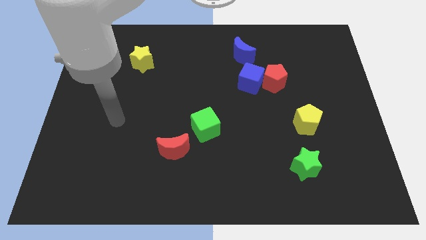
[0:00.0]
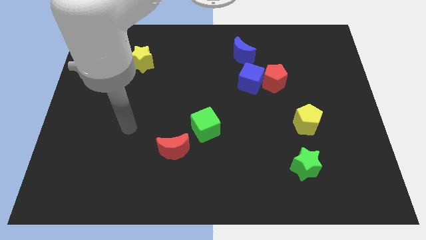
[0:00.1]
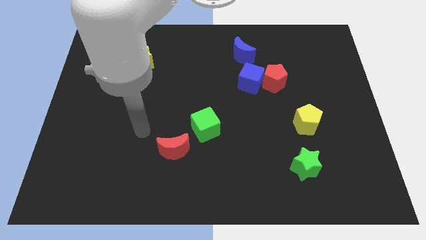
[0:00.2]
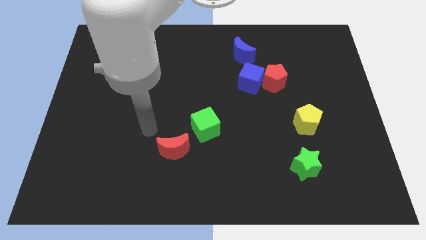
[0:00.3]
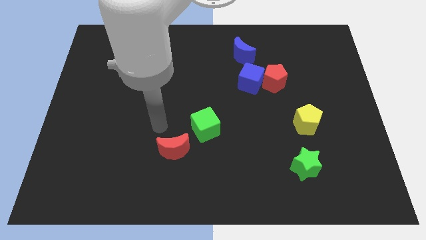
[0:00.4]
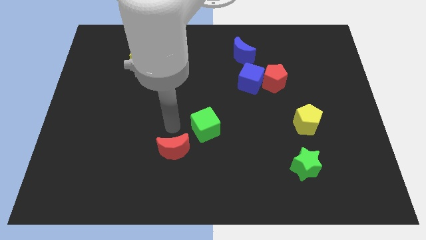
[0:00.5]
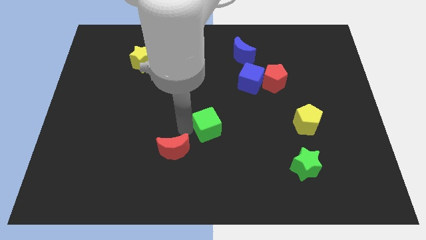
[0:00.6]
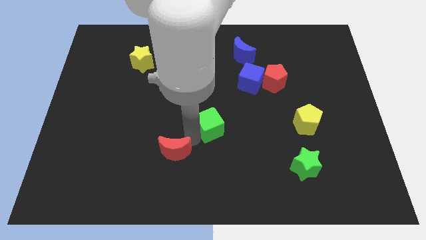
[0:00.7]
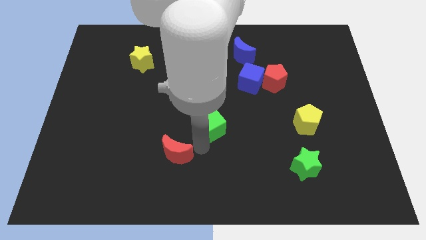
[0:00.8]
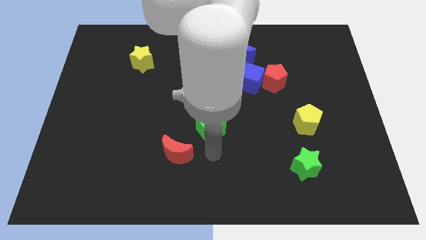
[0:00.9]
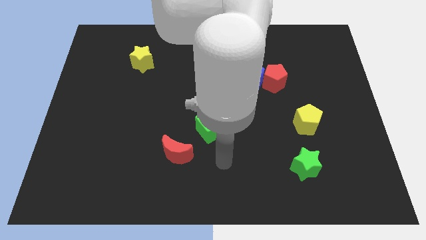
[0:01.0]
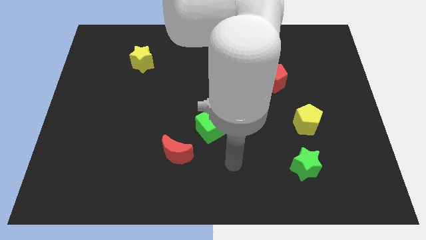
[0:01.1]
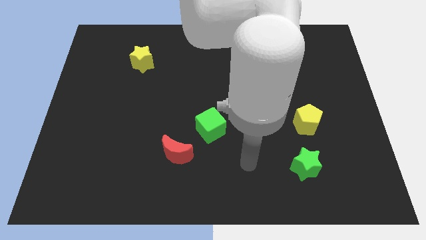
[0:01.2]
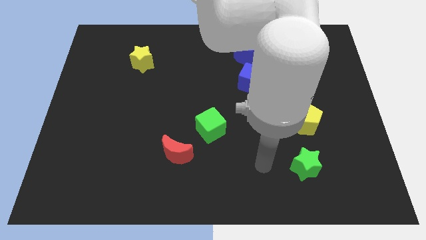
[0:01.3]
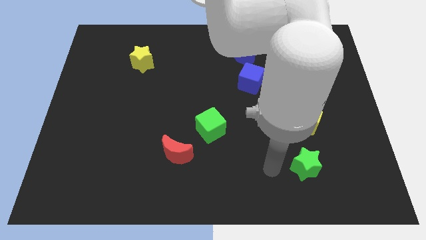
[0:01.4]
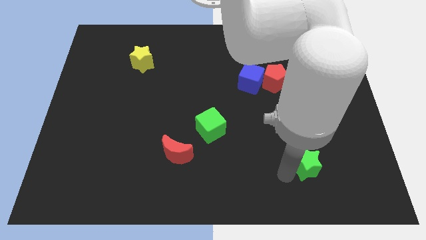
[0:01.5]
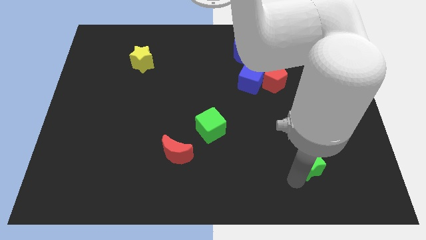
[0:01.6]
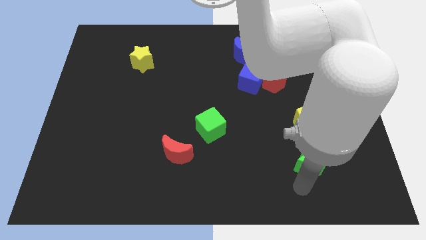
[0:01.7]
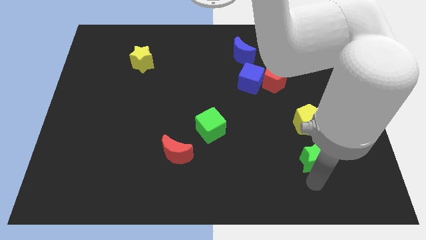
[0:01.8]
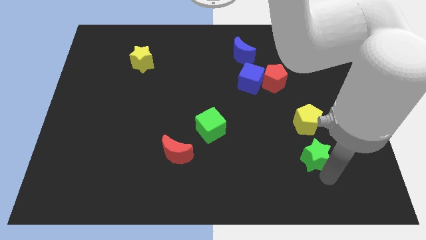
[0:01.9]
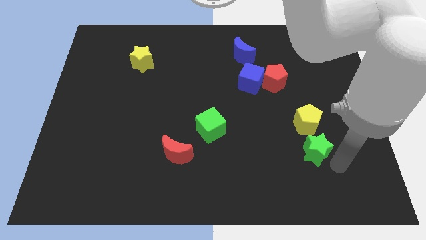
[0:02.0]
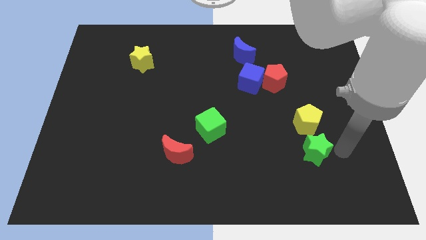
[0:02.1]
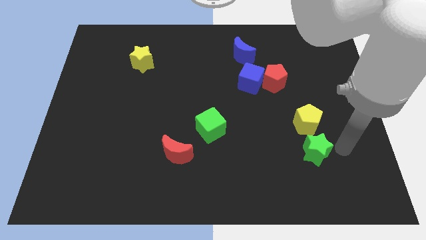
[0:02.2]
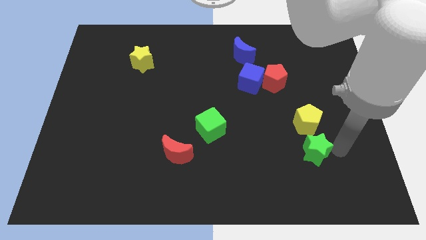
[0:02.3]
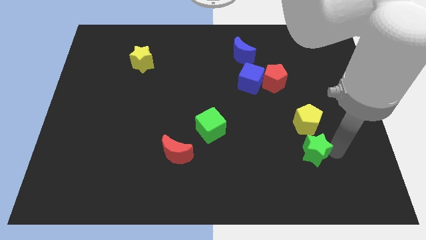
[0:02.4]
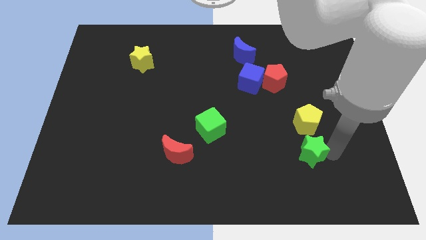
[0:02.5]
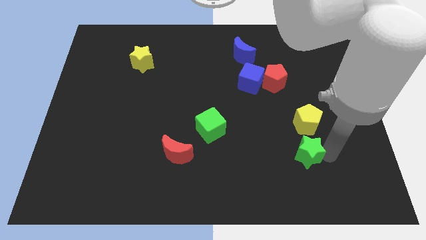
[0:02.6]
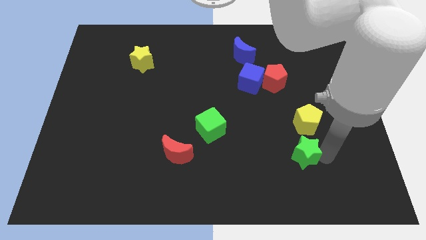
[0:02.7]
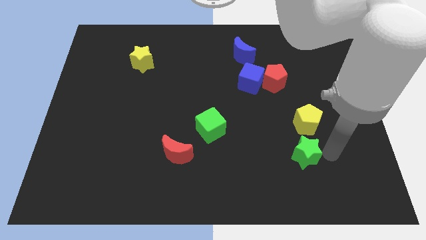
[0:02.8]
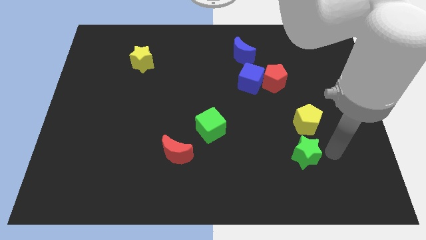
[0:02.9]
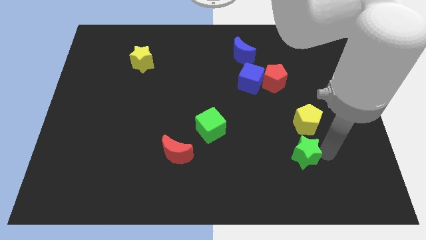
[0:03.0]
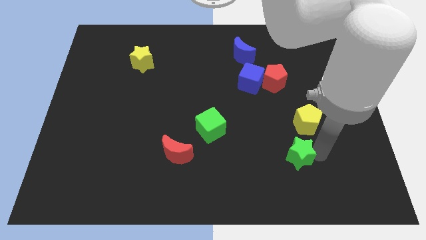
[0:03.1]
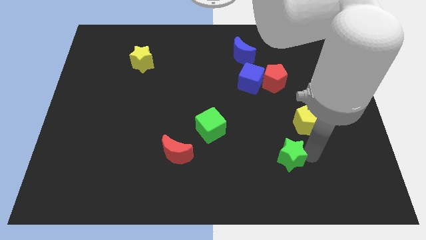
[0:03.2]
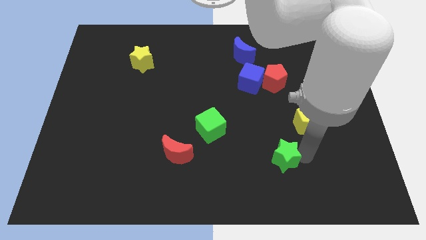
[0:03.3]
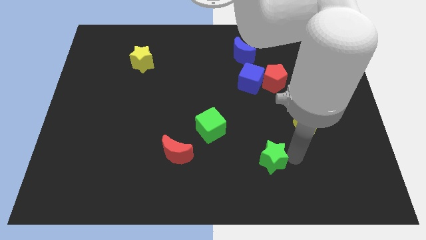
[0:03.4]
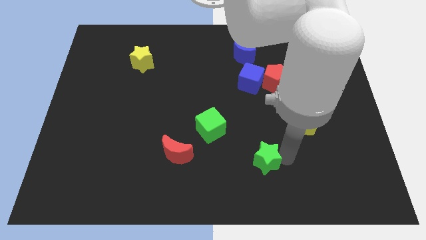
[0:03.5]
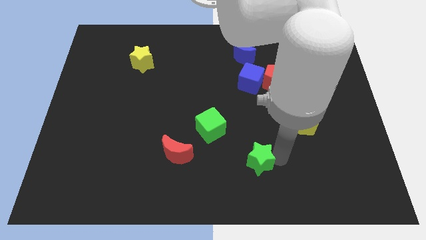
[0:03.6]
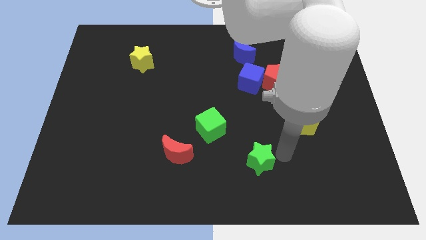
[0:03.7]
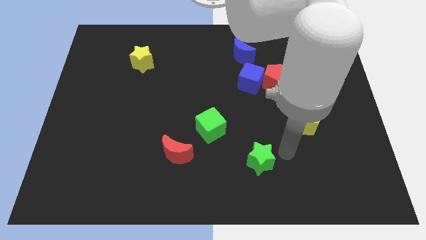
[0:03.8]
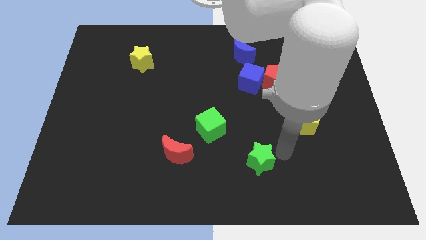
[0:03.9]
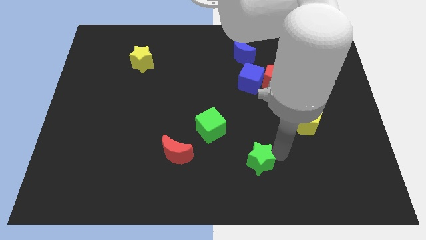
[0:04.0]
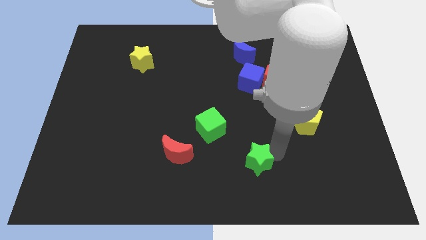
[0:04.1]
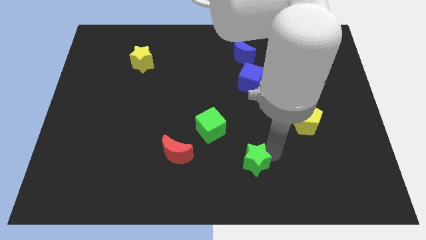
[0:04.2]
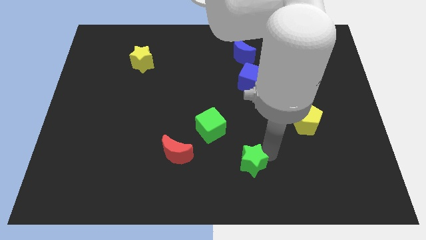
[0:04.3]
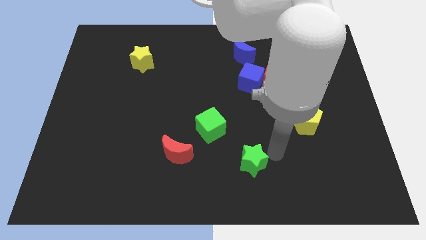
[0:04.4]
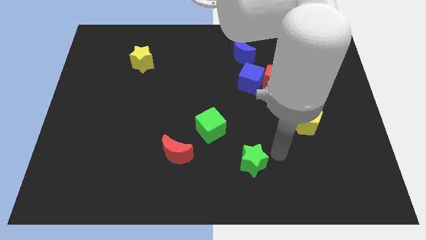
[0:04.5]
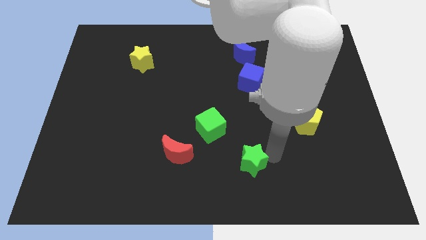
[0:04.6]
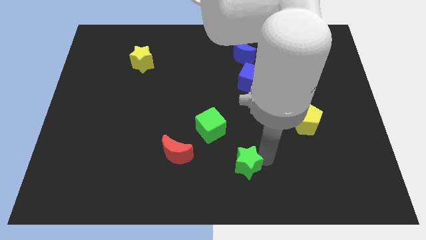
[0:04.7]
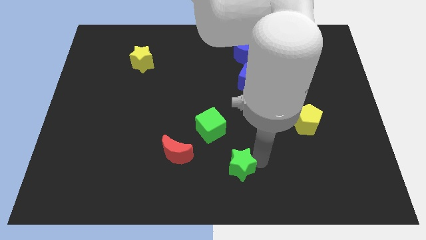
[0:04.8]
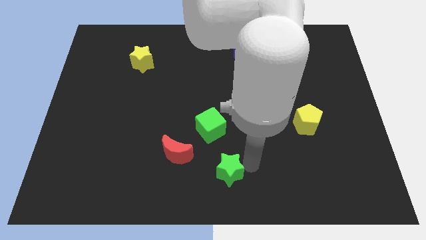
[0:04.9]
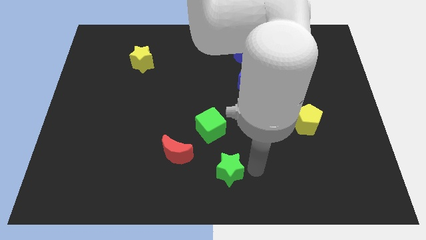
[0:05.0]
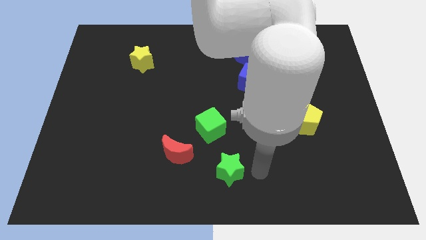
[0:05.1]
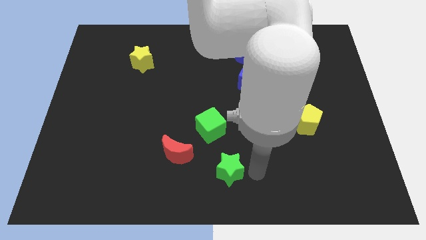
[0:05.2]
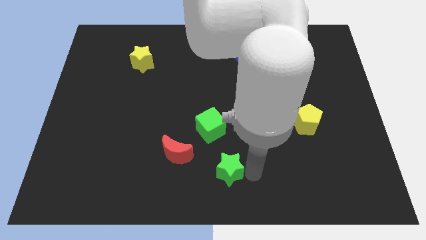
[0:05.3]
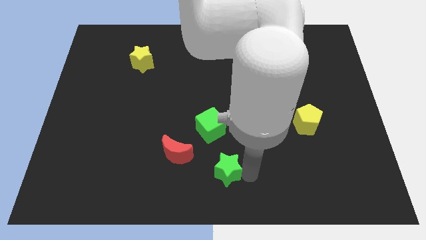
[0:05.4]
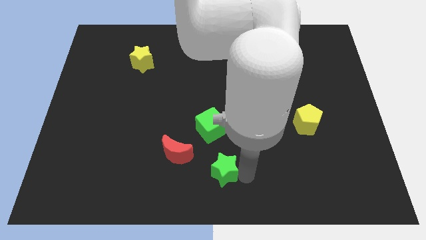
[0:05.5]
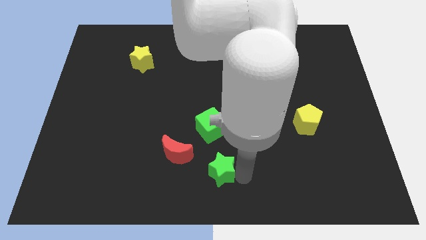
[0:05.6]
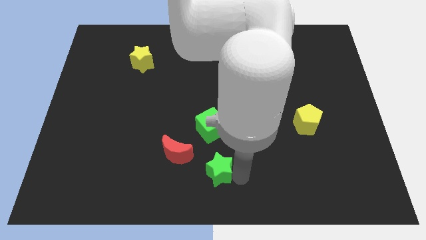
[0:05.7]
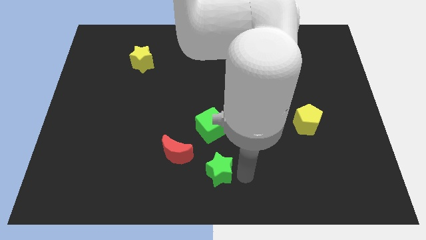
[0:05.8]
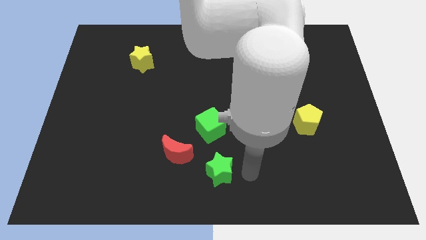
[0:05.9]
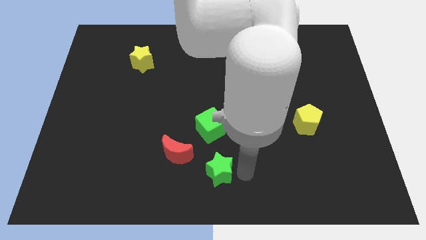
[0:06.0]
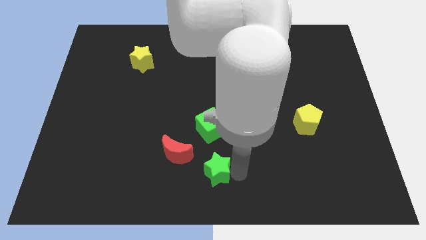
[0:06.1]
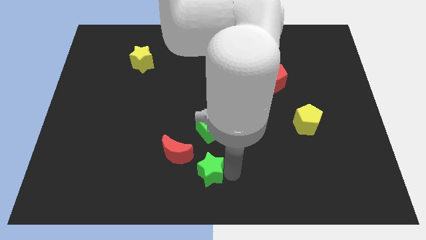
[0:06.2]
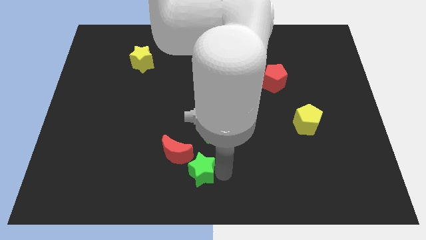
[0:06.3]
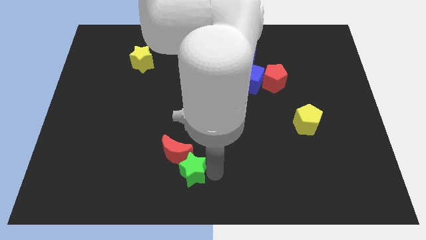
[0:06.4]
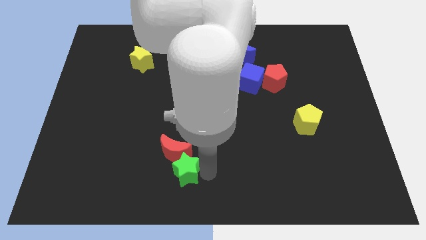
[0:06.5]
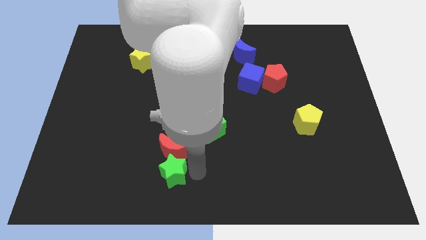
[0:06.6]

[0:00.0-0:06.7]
move the green star to the bottom left of the red moon

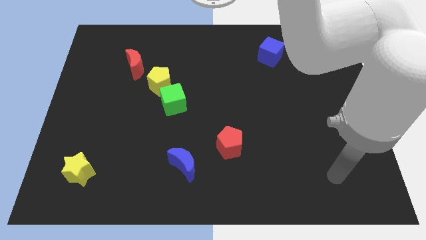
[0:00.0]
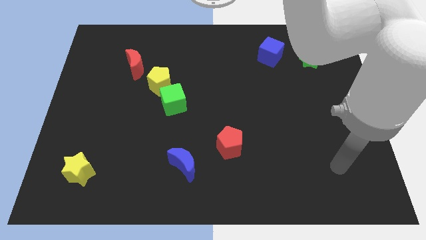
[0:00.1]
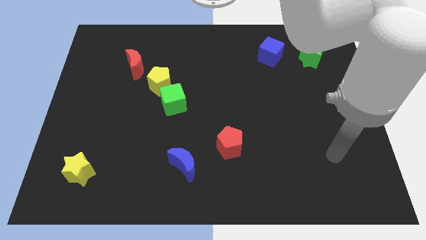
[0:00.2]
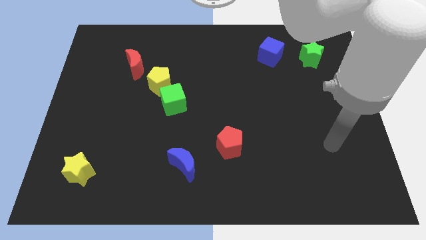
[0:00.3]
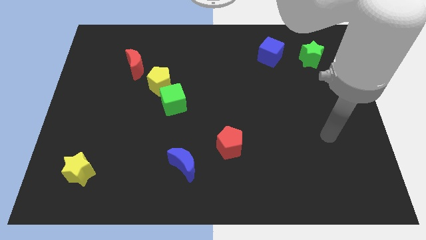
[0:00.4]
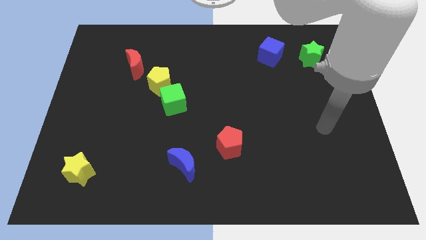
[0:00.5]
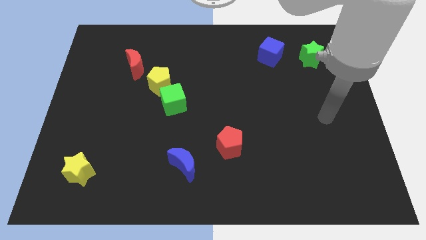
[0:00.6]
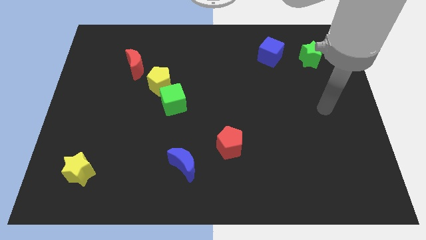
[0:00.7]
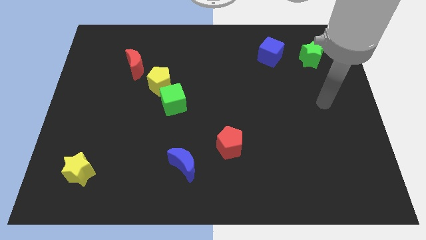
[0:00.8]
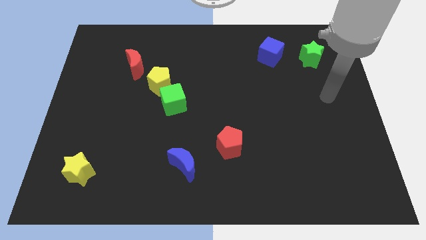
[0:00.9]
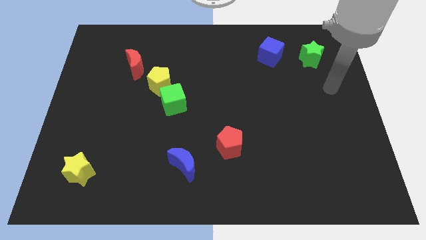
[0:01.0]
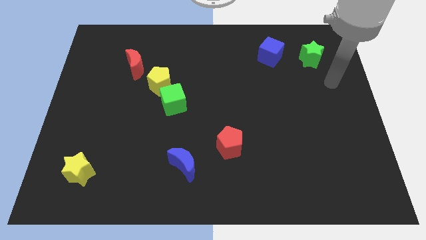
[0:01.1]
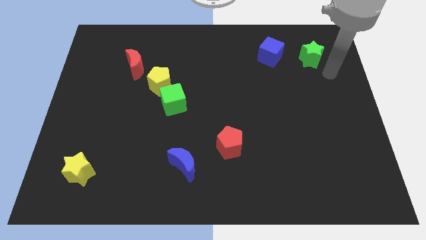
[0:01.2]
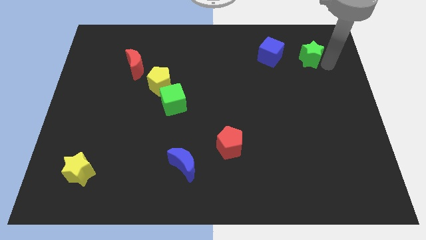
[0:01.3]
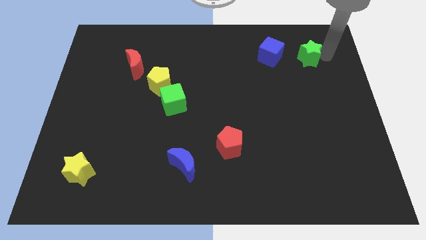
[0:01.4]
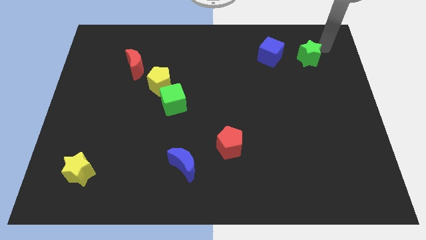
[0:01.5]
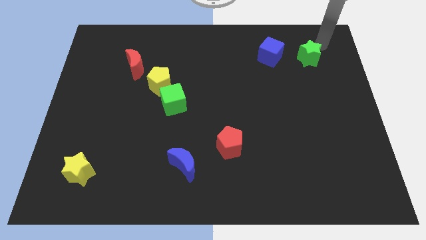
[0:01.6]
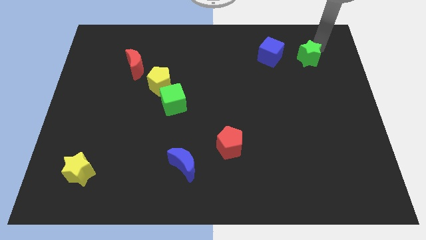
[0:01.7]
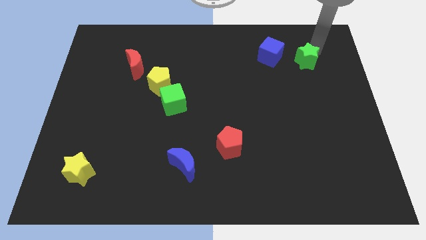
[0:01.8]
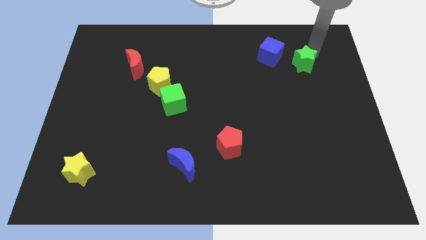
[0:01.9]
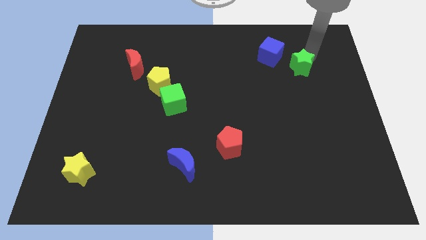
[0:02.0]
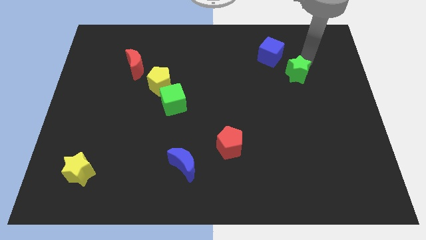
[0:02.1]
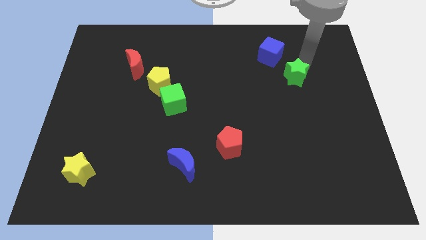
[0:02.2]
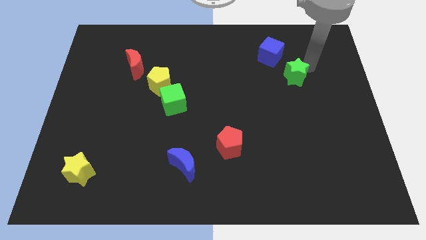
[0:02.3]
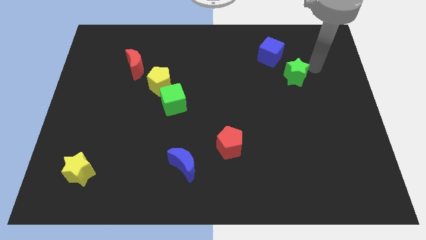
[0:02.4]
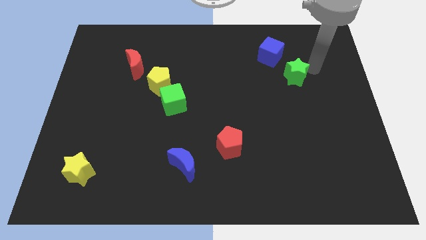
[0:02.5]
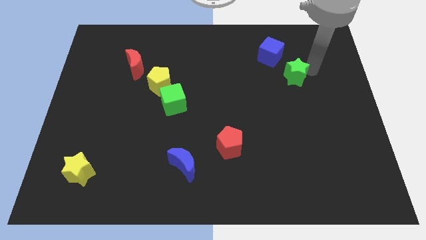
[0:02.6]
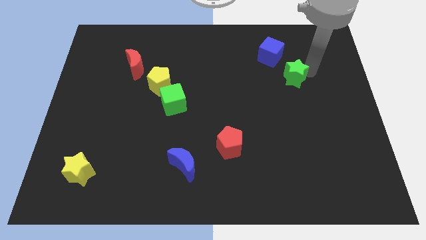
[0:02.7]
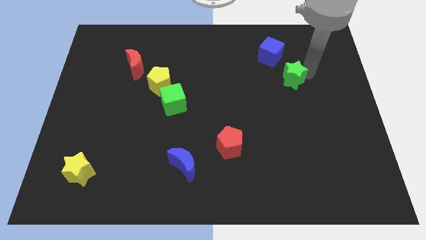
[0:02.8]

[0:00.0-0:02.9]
push the green star to the bottom of the blue cube
